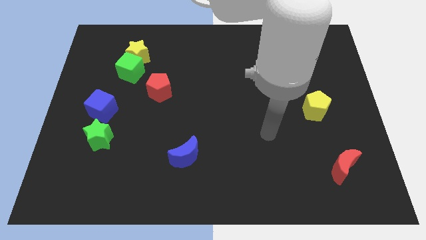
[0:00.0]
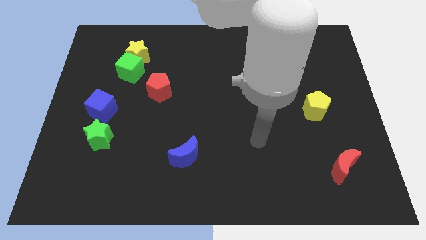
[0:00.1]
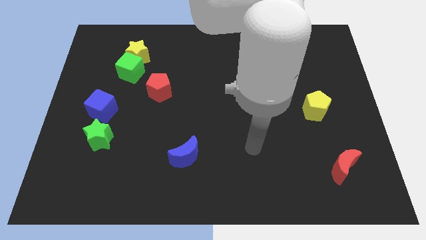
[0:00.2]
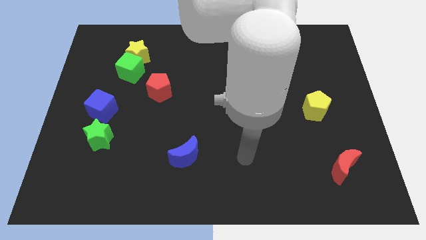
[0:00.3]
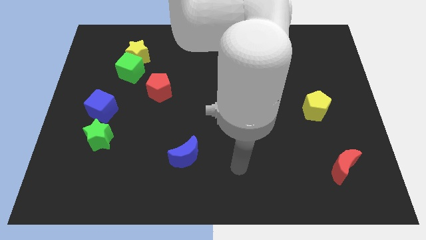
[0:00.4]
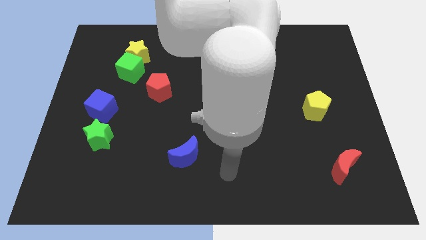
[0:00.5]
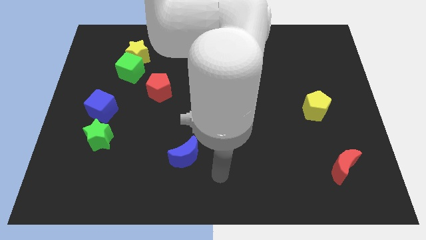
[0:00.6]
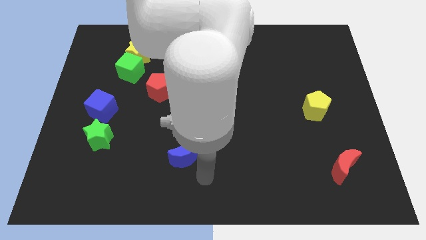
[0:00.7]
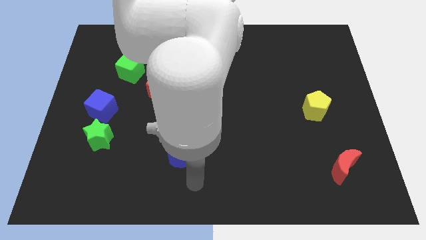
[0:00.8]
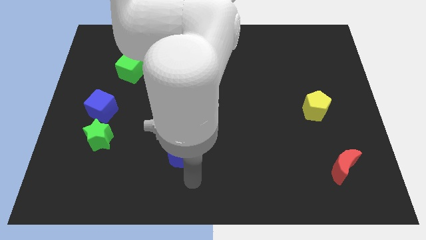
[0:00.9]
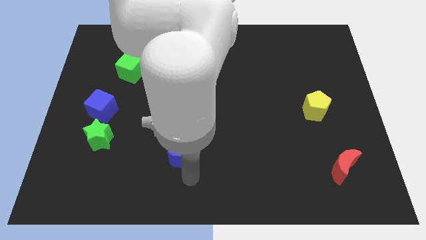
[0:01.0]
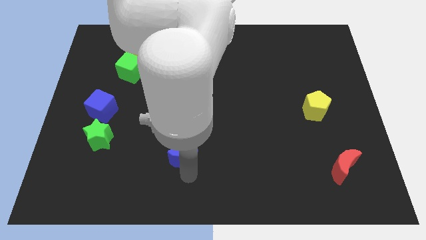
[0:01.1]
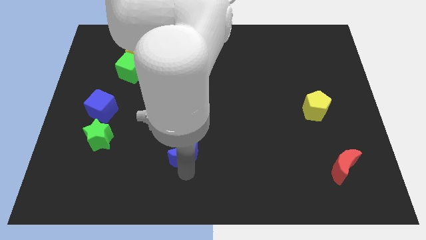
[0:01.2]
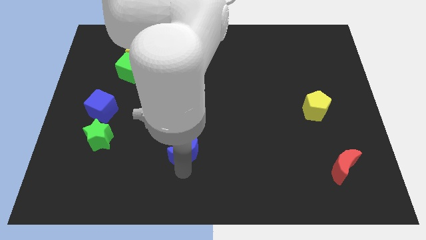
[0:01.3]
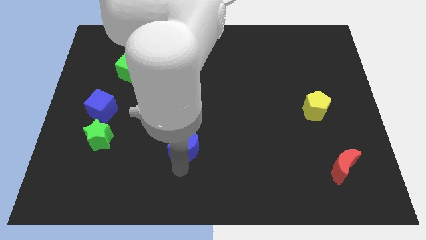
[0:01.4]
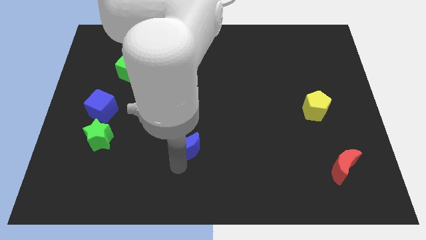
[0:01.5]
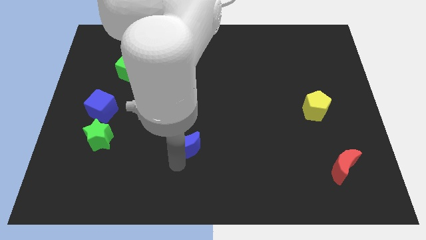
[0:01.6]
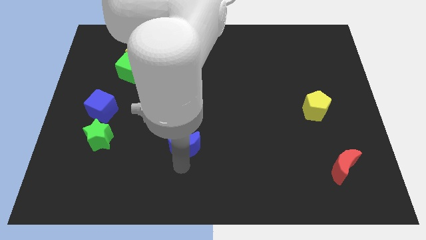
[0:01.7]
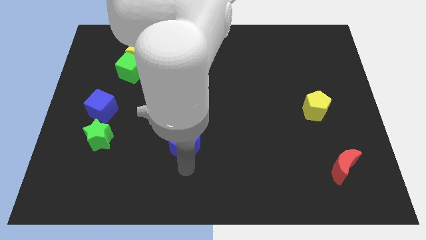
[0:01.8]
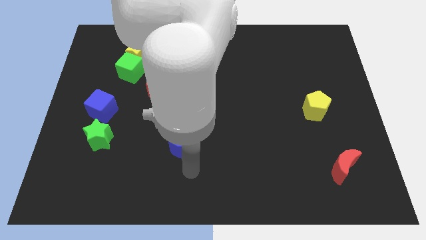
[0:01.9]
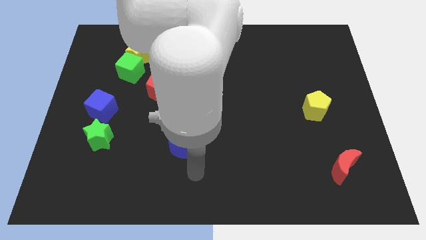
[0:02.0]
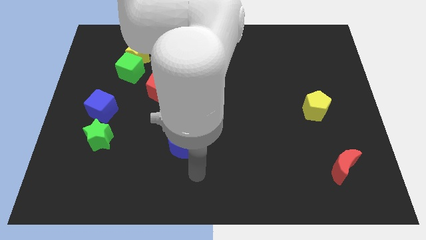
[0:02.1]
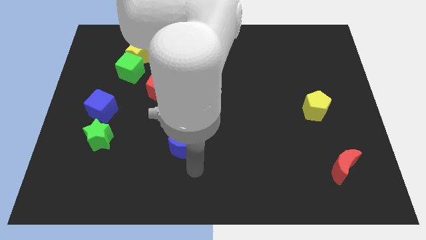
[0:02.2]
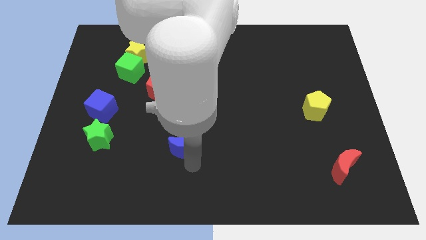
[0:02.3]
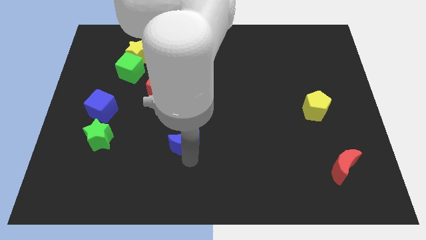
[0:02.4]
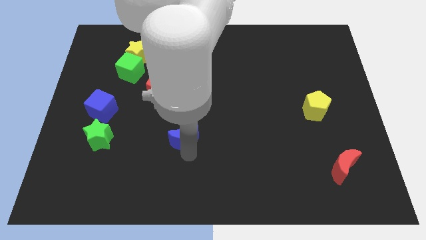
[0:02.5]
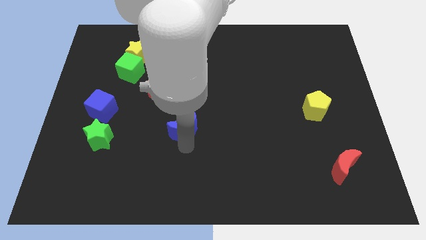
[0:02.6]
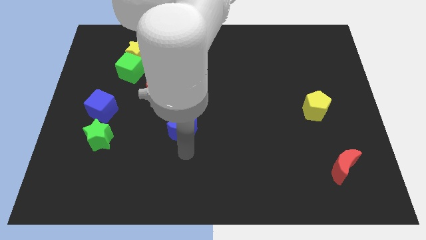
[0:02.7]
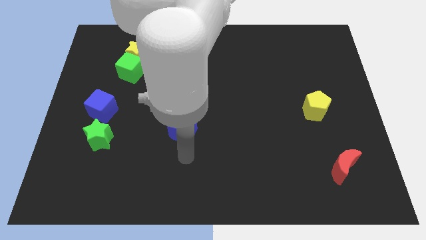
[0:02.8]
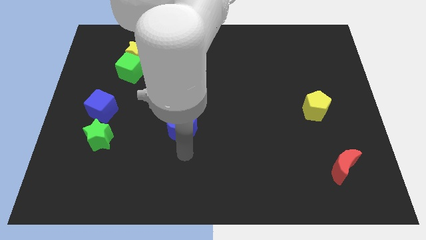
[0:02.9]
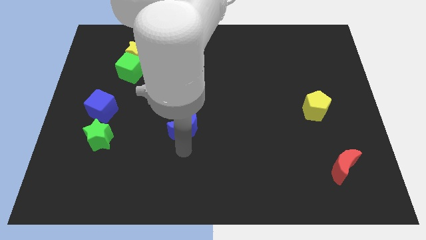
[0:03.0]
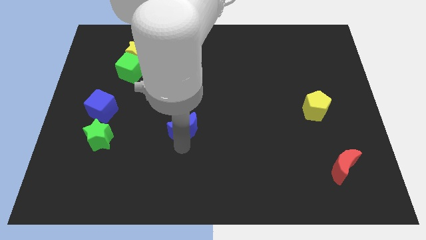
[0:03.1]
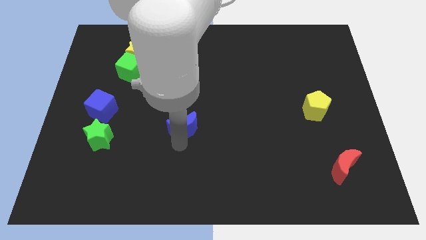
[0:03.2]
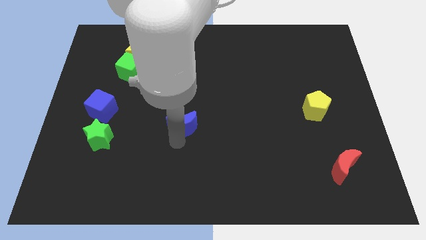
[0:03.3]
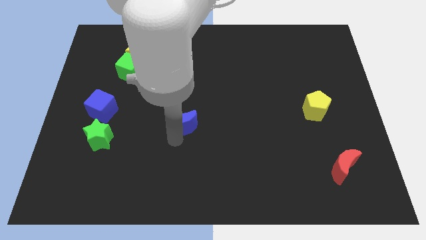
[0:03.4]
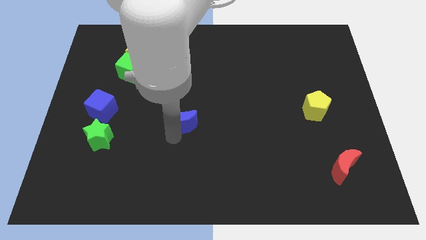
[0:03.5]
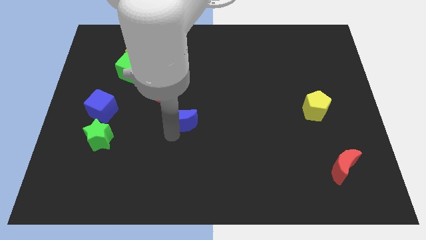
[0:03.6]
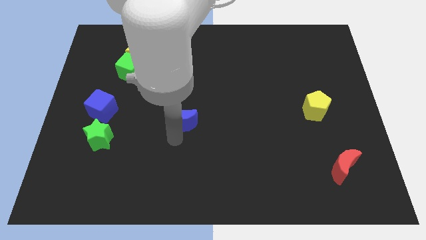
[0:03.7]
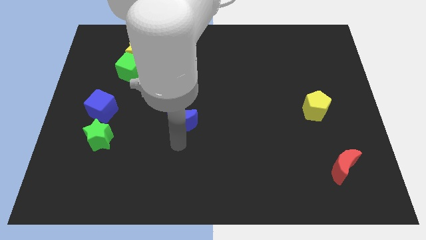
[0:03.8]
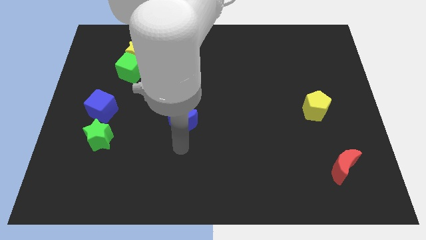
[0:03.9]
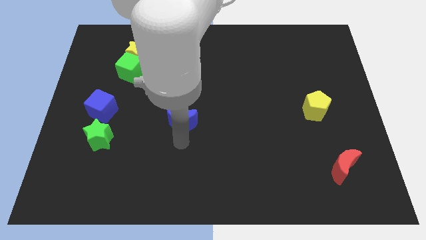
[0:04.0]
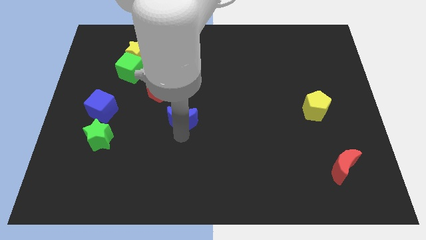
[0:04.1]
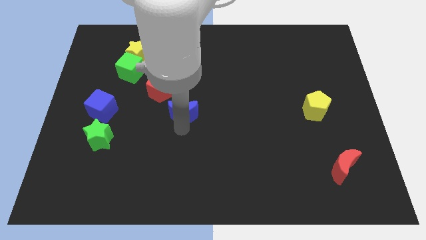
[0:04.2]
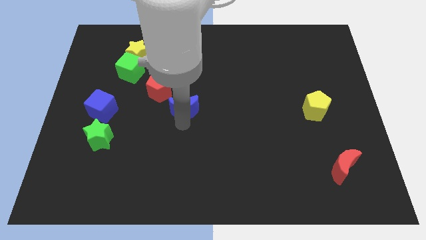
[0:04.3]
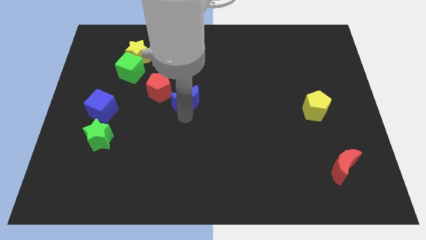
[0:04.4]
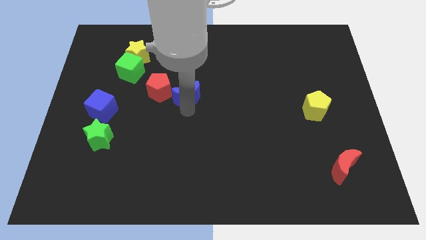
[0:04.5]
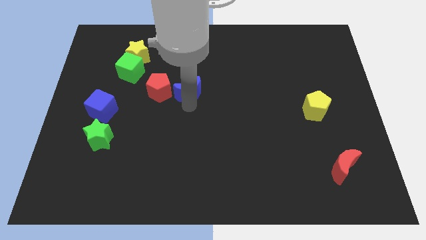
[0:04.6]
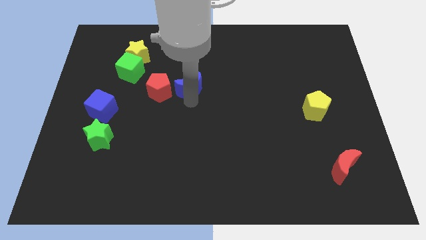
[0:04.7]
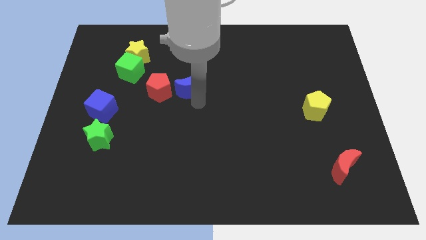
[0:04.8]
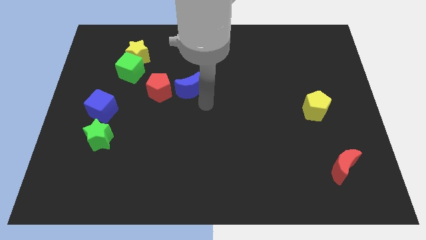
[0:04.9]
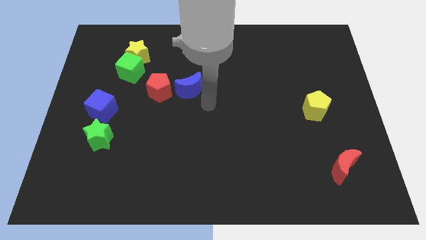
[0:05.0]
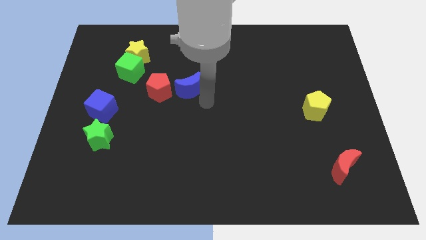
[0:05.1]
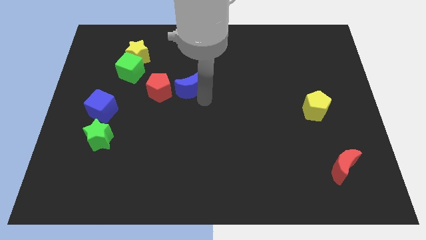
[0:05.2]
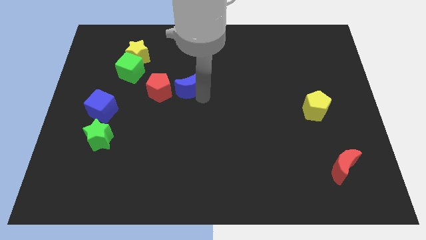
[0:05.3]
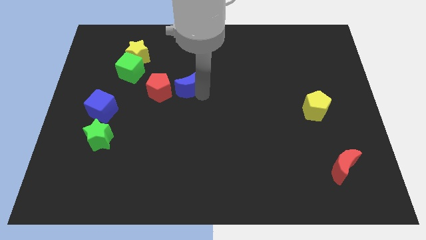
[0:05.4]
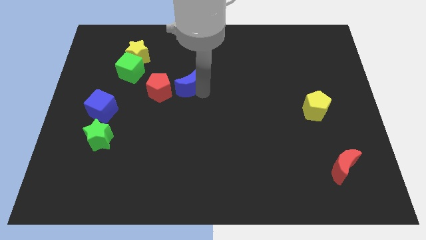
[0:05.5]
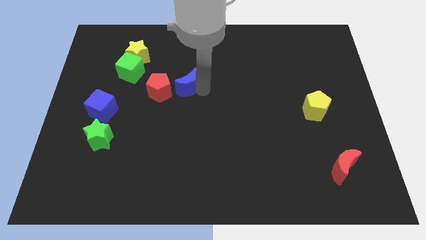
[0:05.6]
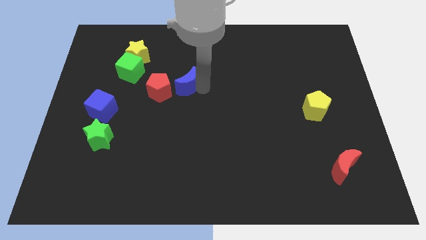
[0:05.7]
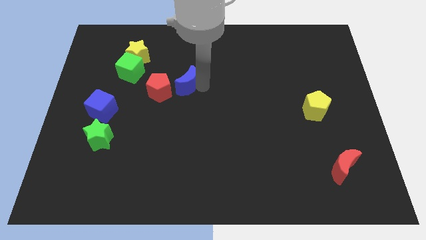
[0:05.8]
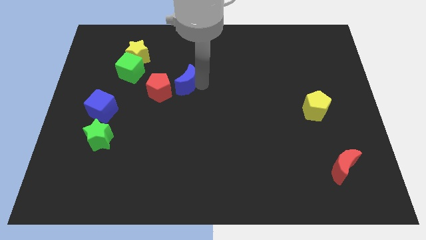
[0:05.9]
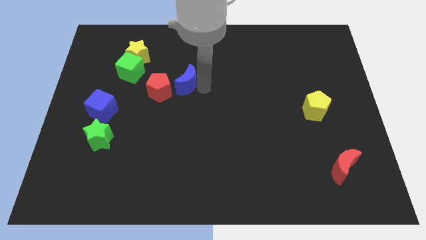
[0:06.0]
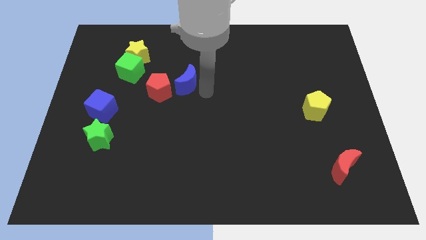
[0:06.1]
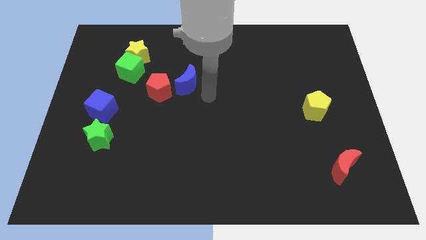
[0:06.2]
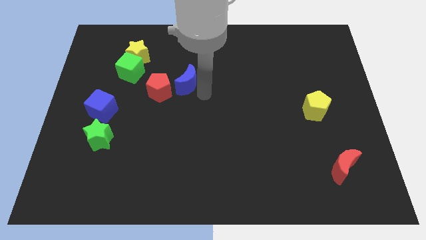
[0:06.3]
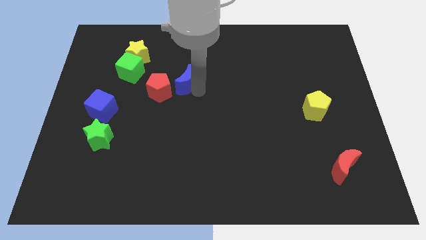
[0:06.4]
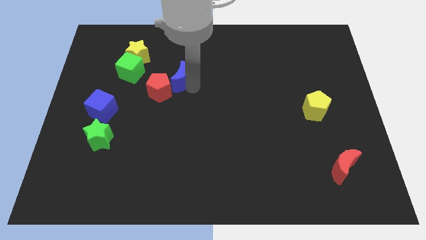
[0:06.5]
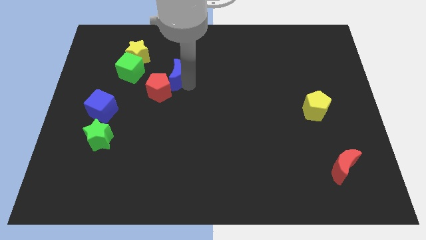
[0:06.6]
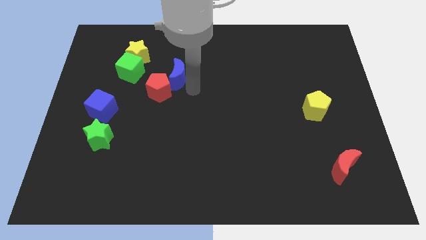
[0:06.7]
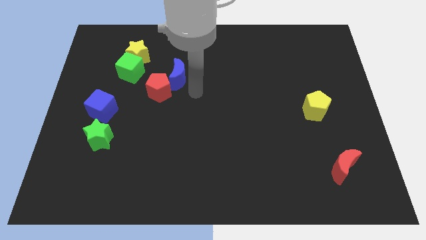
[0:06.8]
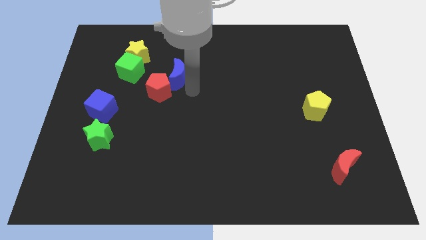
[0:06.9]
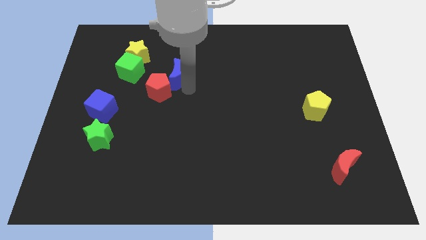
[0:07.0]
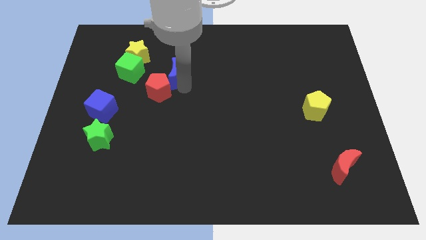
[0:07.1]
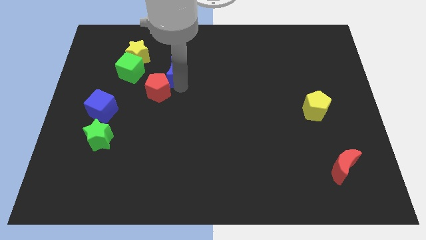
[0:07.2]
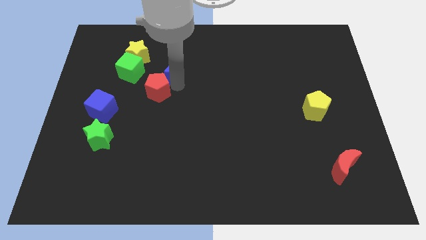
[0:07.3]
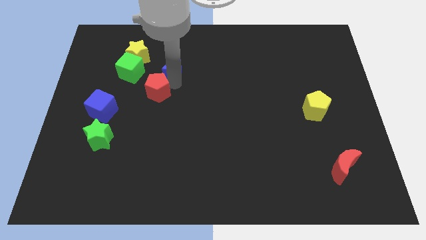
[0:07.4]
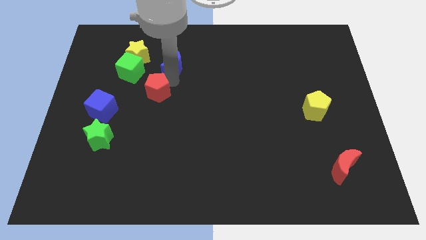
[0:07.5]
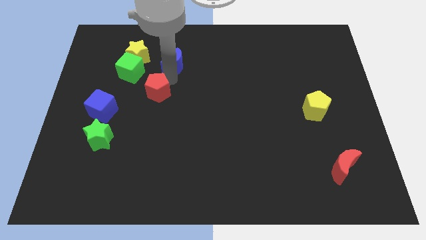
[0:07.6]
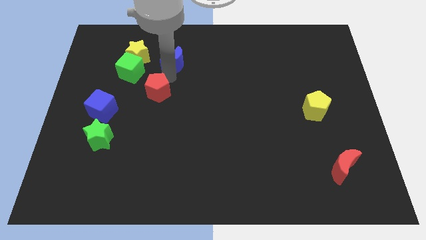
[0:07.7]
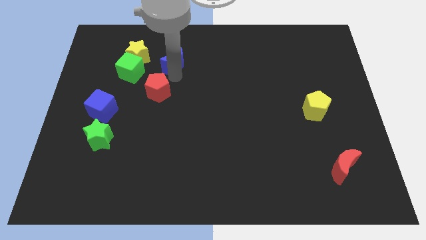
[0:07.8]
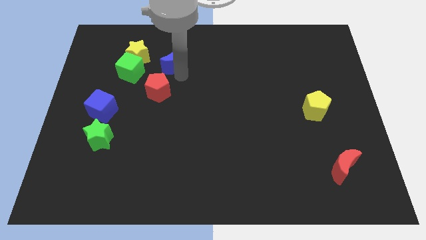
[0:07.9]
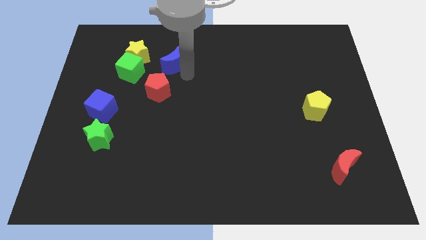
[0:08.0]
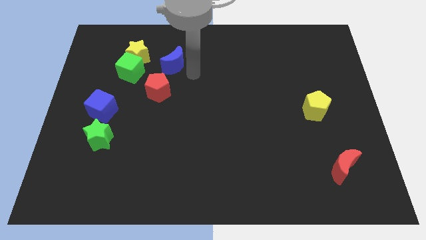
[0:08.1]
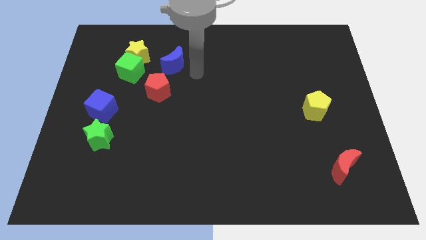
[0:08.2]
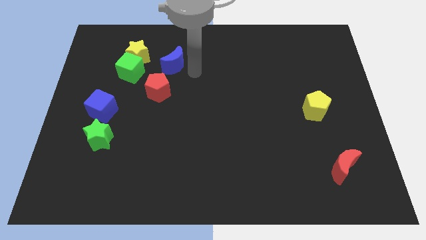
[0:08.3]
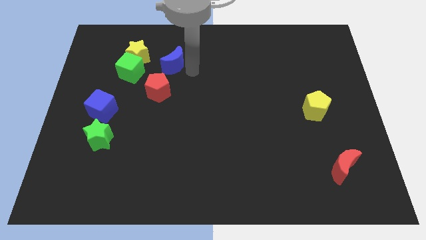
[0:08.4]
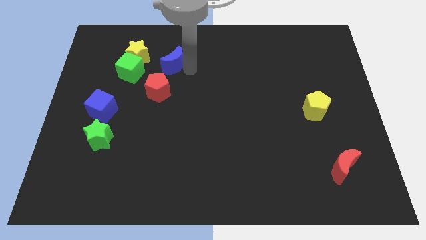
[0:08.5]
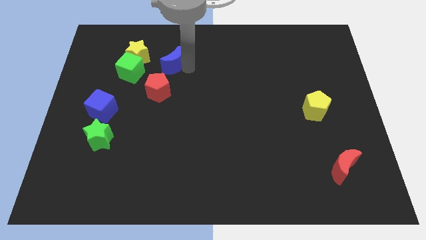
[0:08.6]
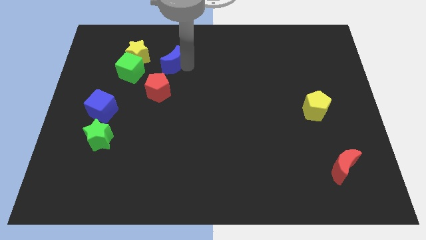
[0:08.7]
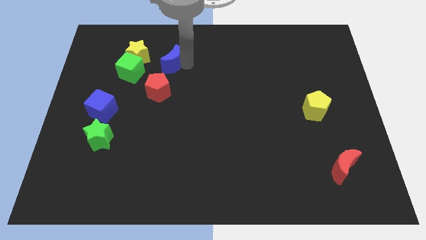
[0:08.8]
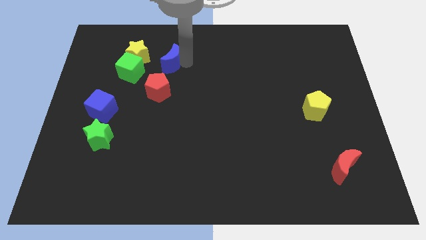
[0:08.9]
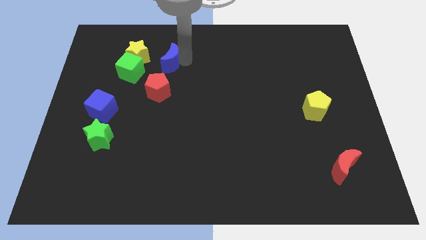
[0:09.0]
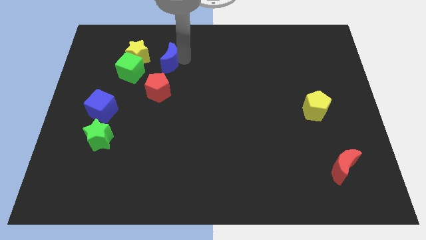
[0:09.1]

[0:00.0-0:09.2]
move the blue moon diagonally up and to the right of the green cube
